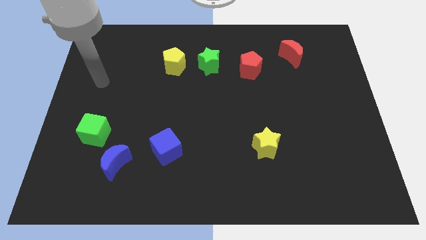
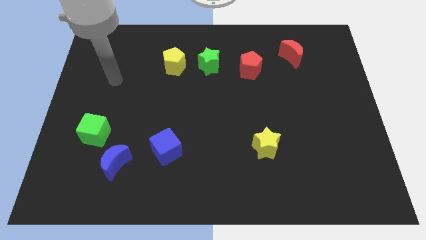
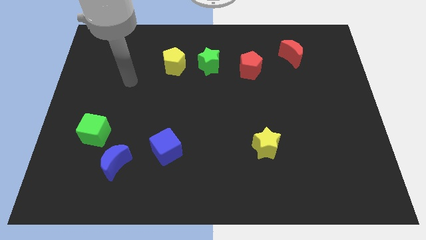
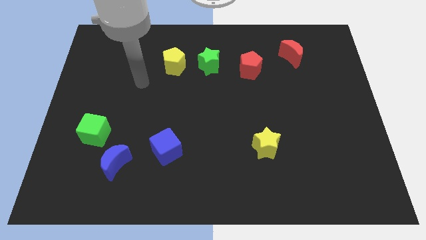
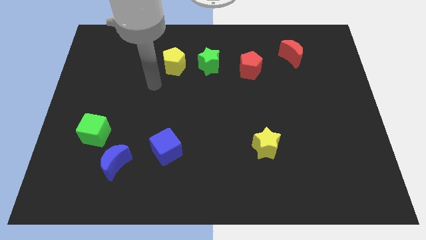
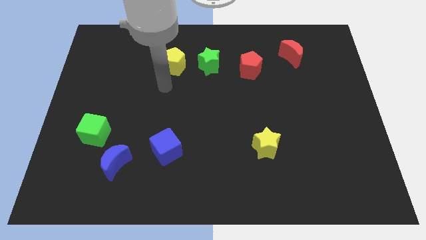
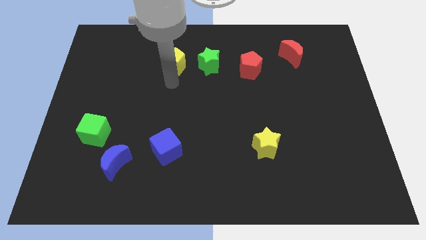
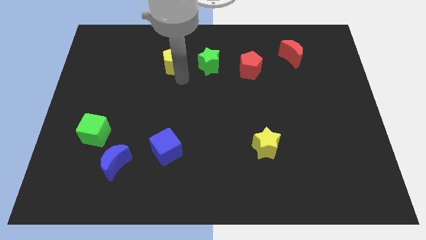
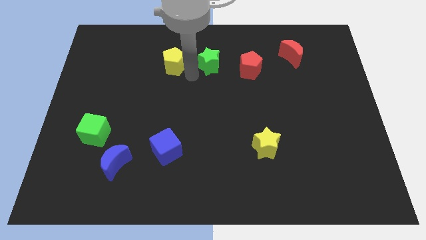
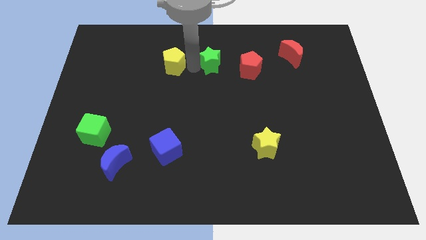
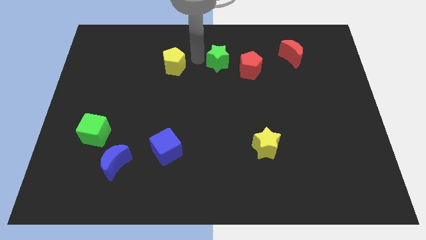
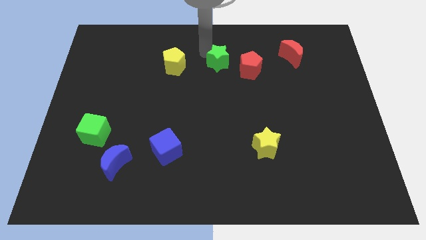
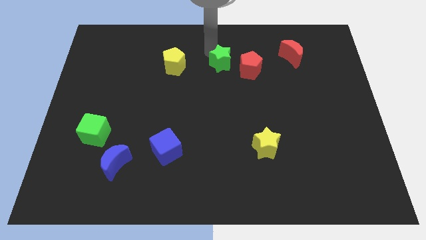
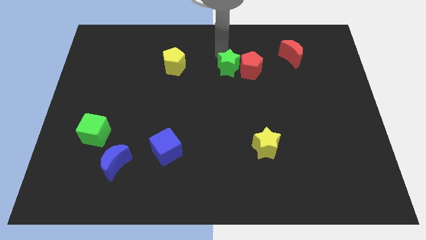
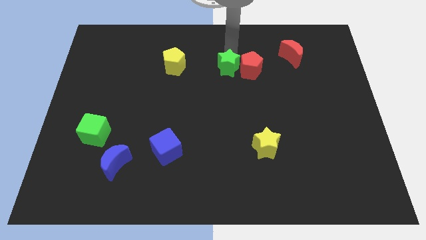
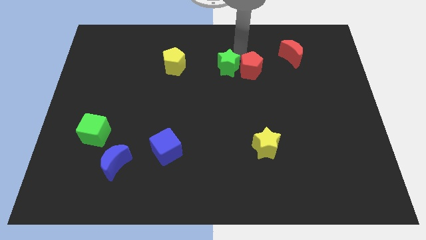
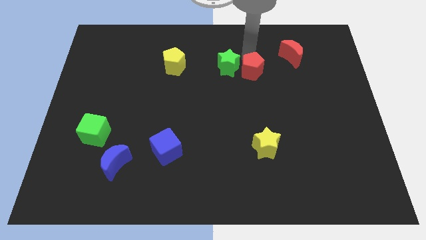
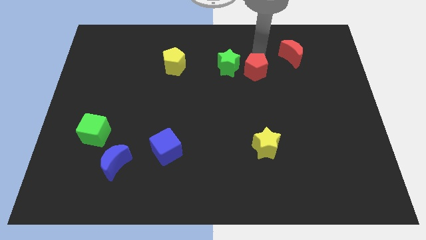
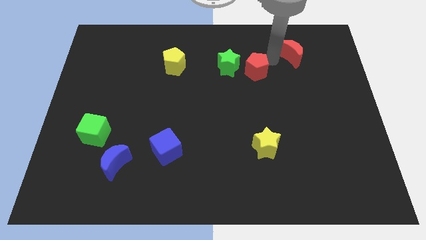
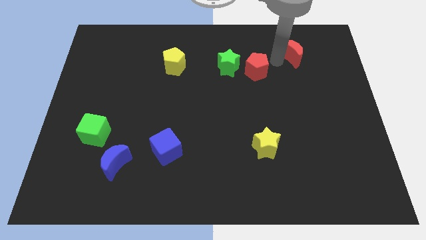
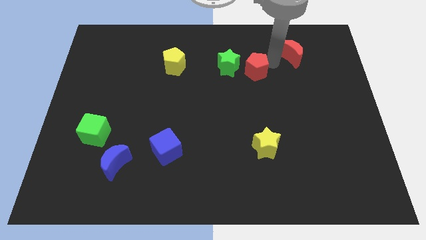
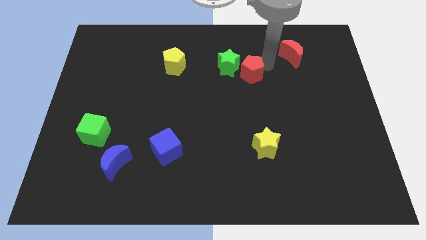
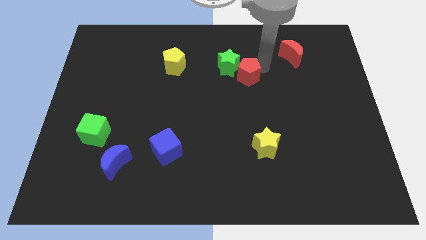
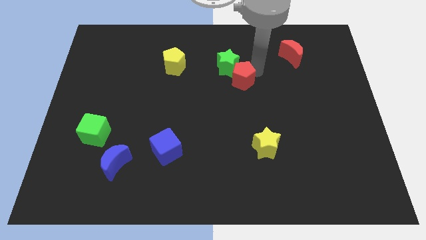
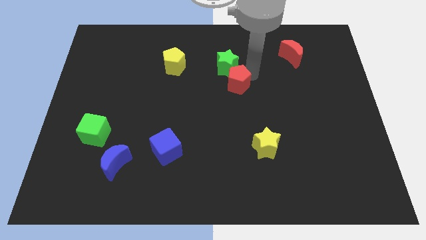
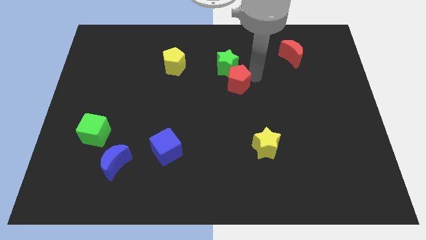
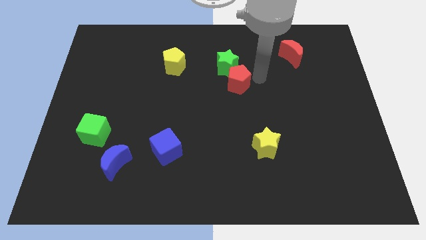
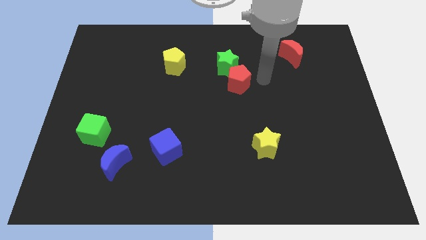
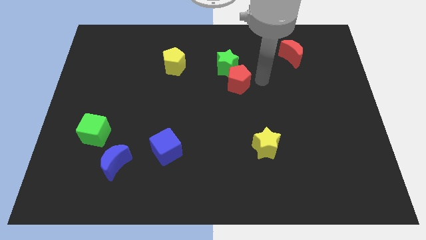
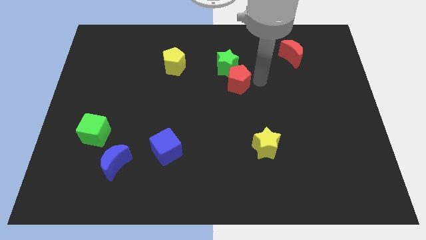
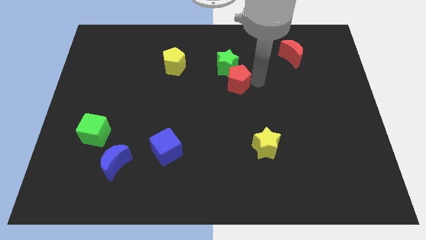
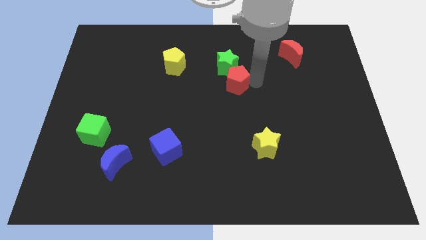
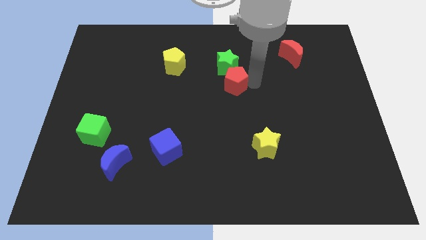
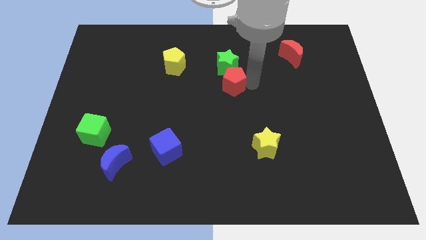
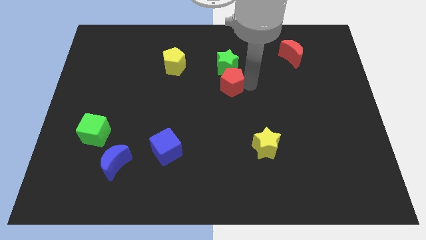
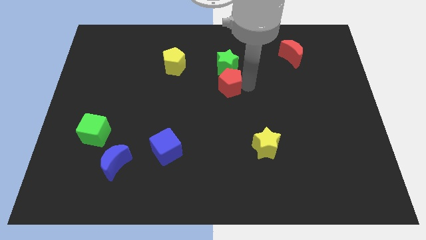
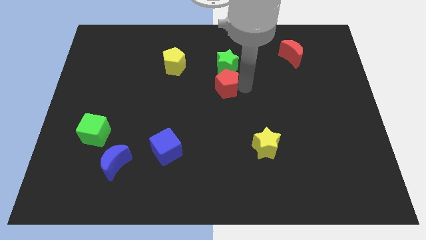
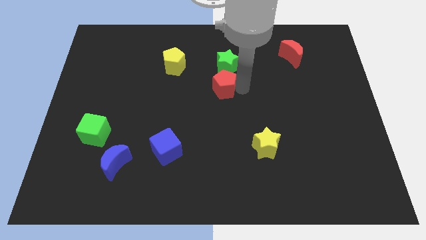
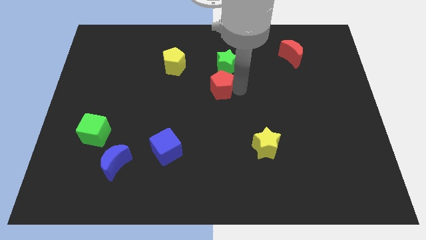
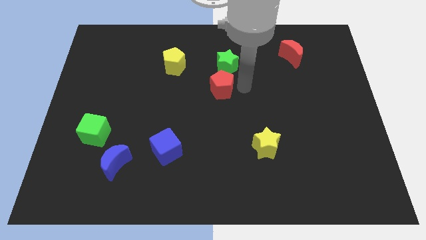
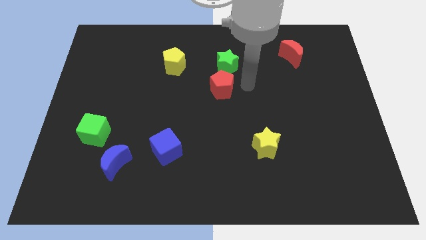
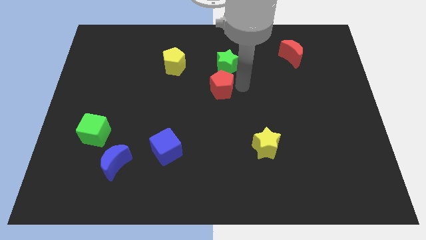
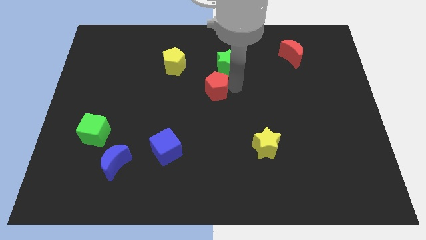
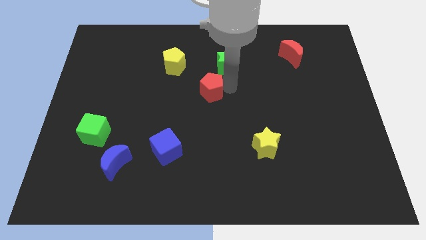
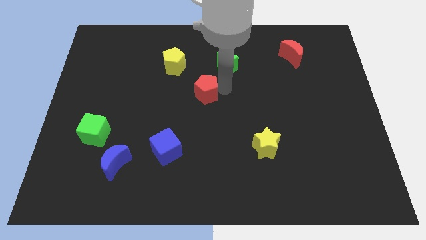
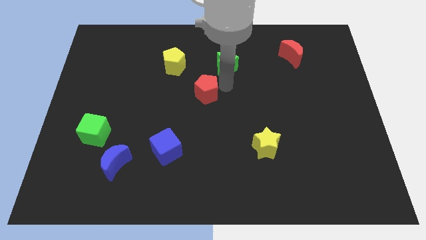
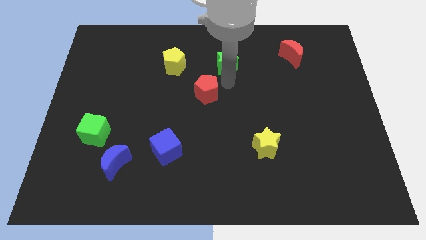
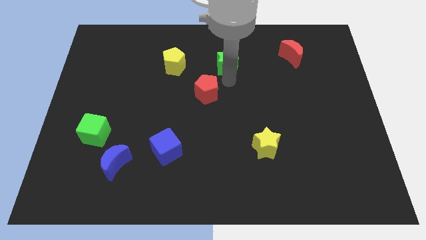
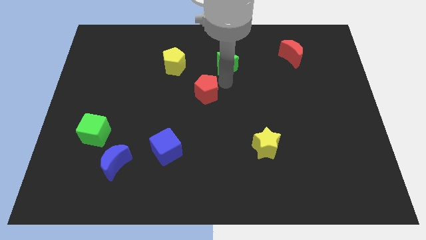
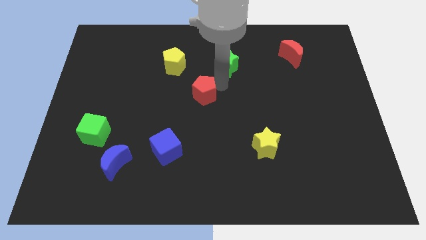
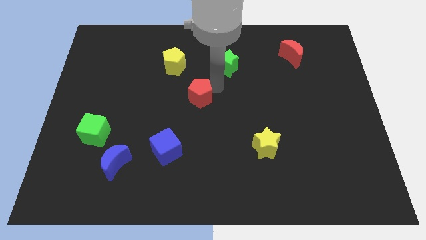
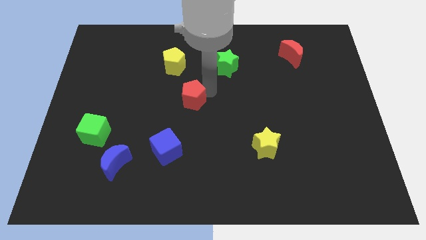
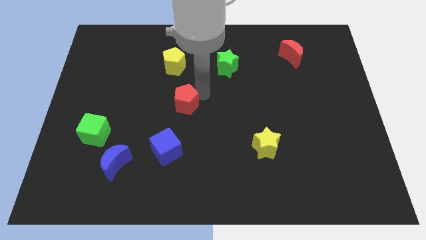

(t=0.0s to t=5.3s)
move the red pentagon above the blue cube

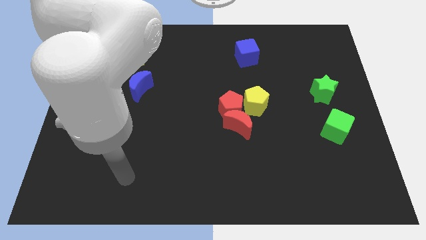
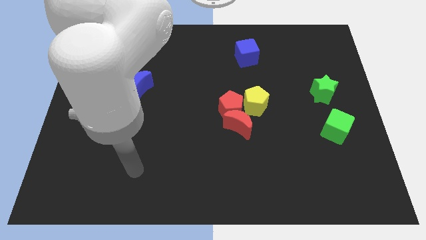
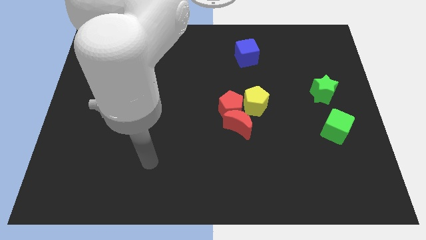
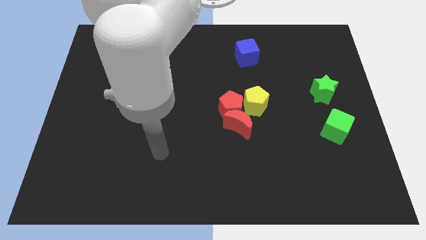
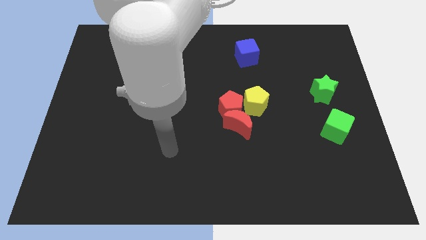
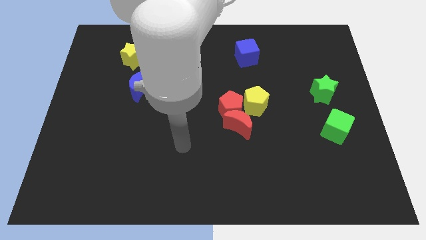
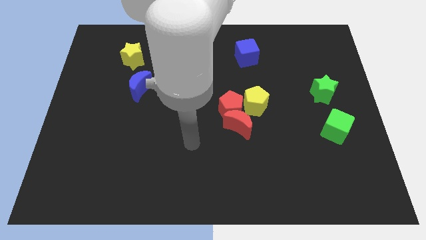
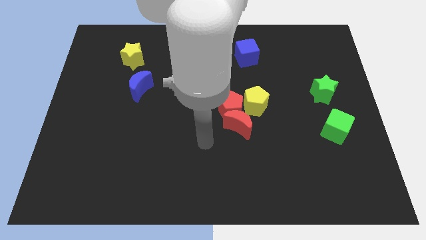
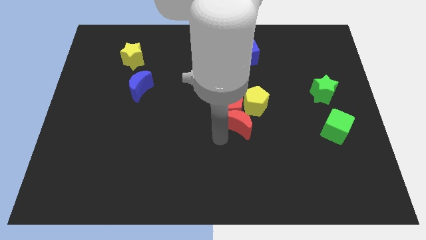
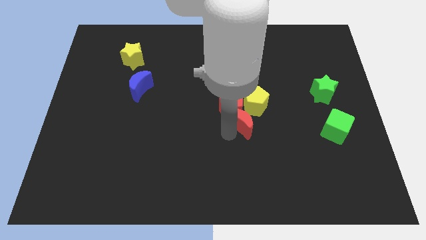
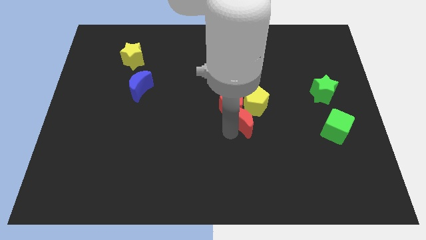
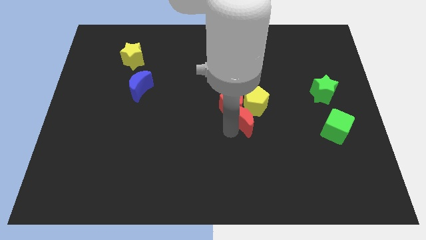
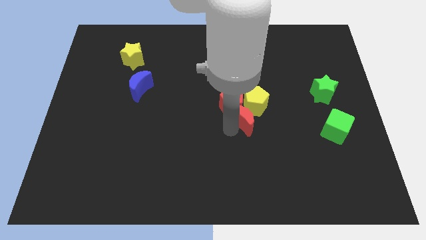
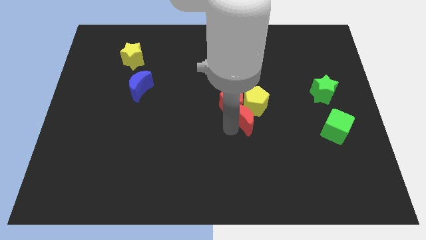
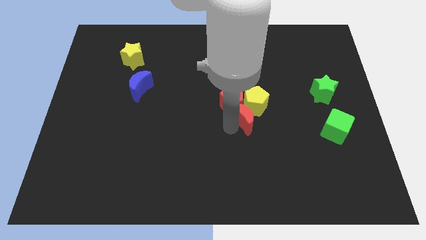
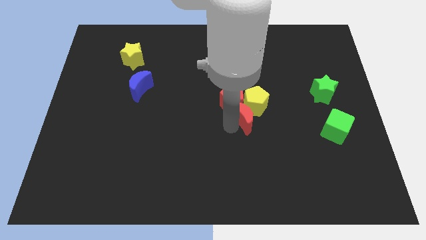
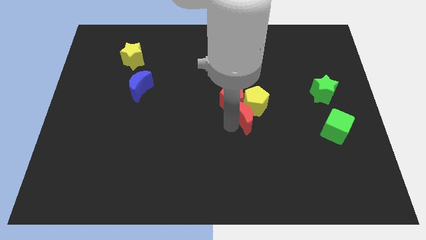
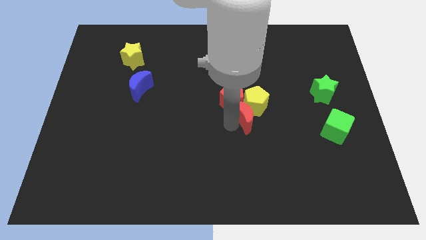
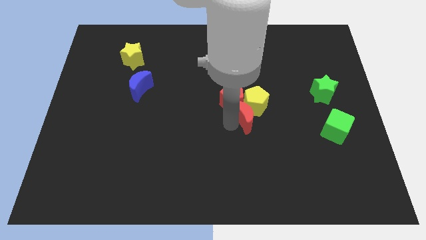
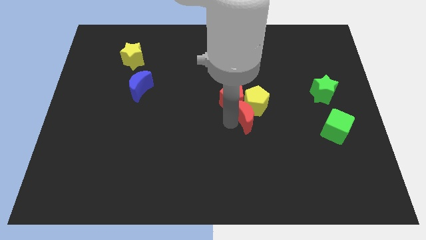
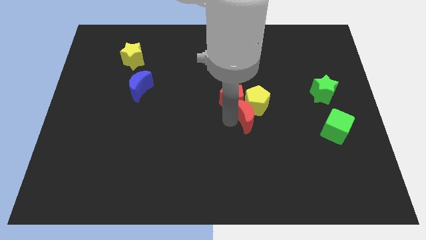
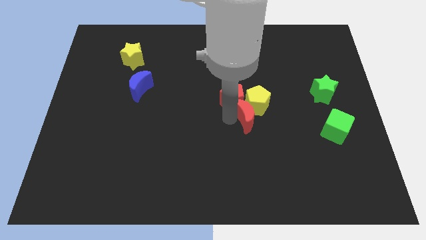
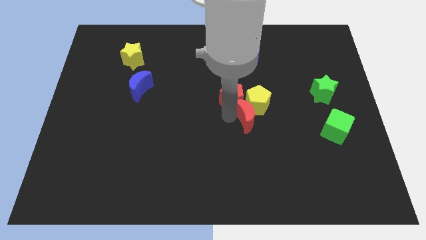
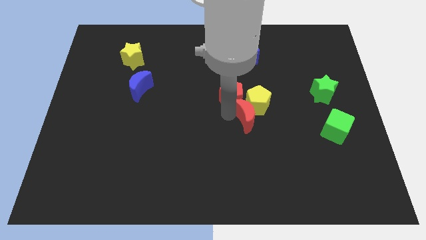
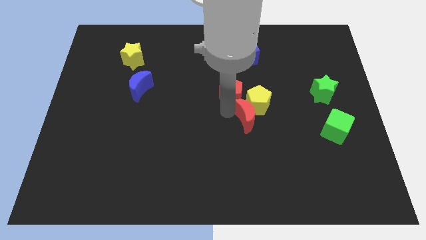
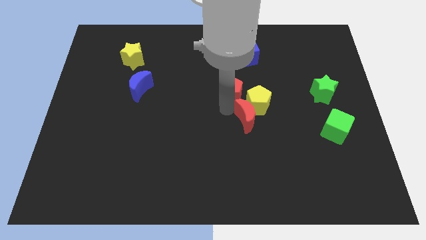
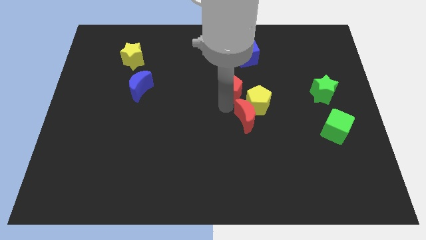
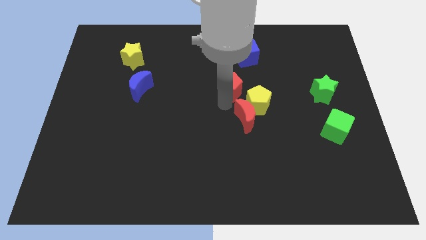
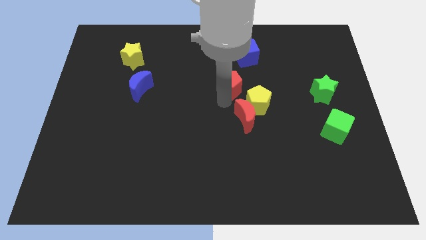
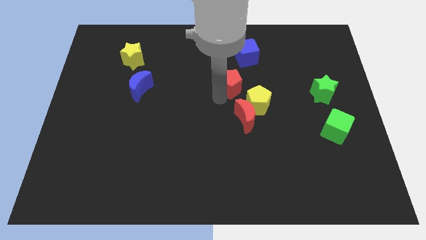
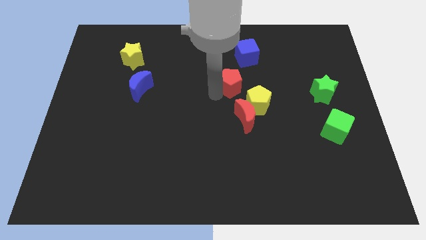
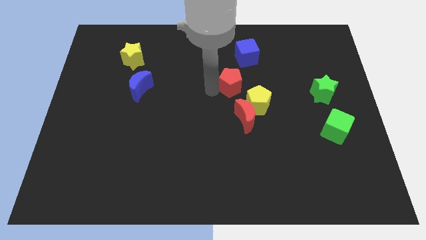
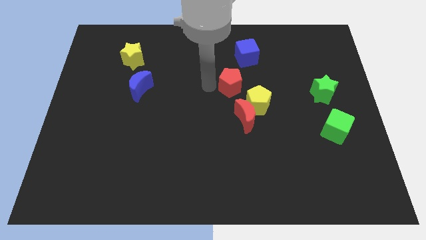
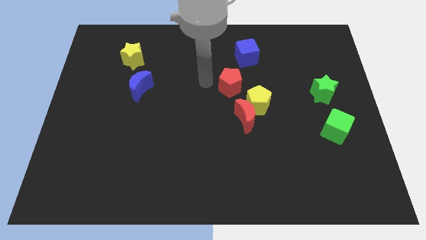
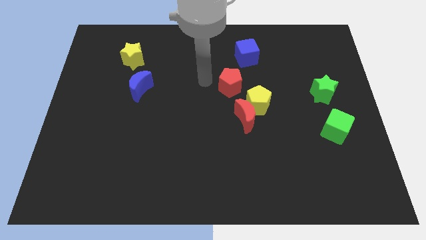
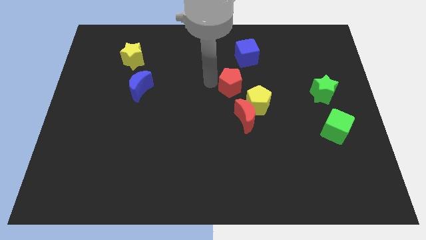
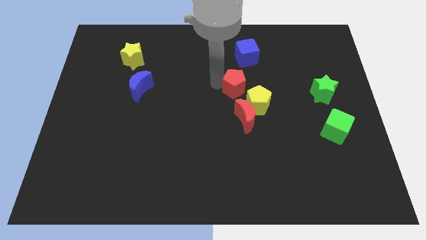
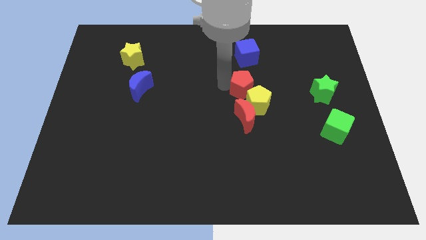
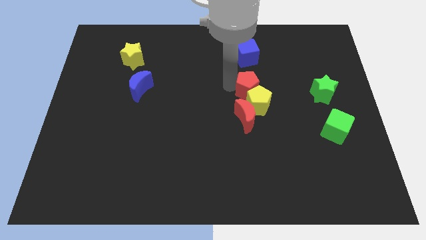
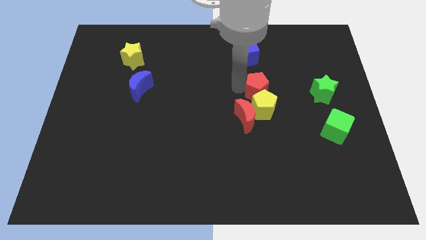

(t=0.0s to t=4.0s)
put the red pentagon just left of the green star
